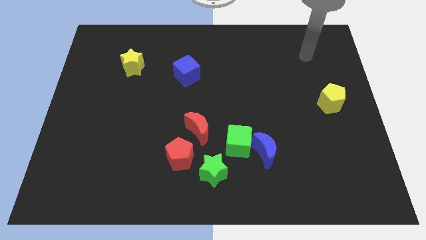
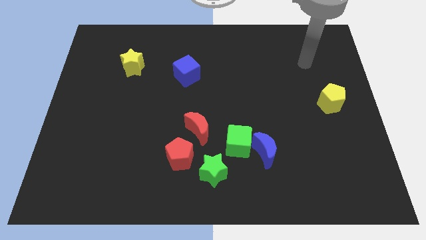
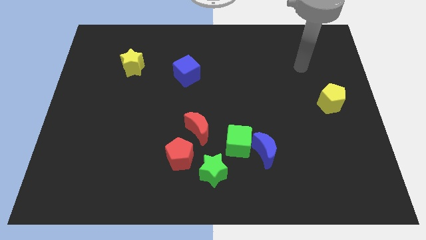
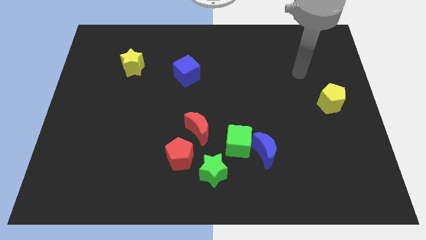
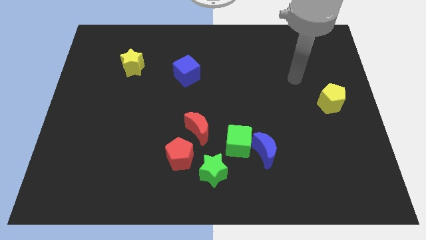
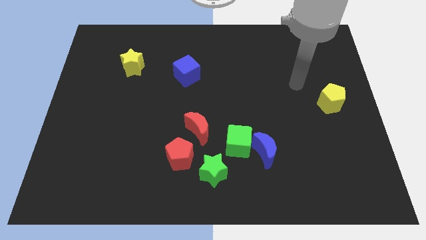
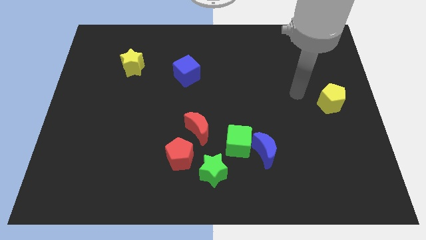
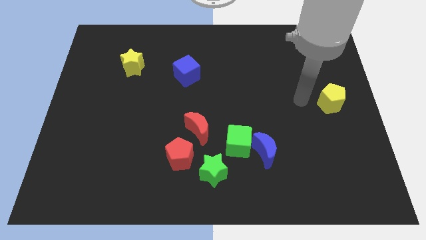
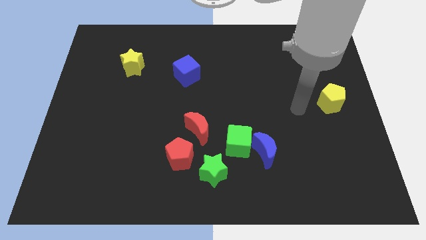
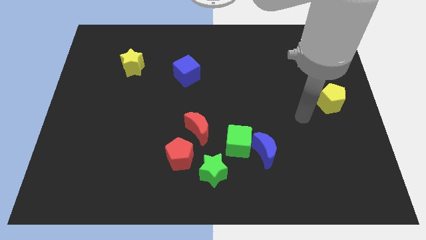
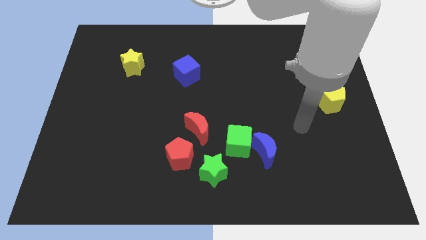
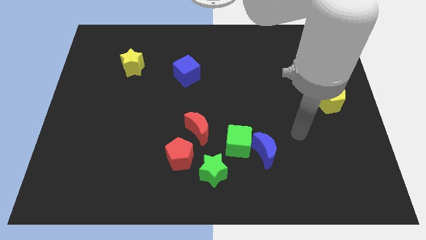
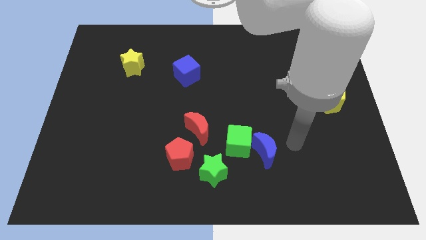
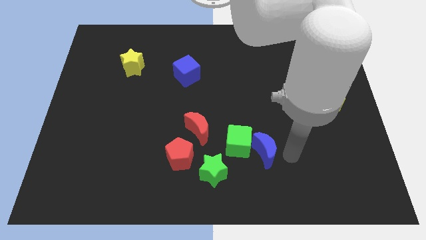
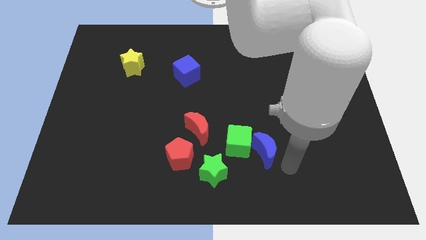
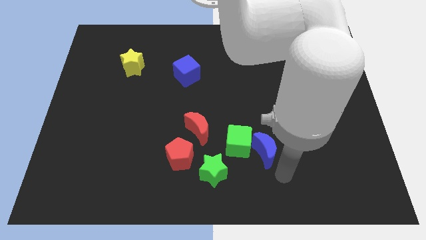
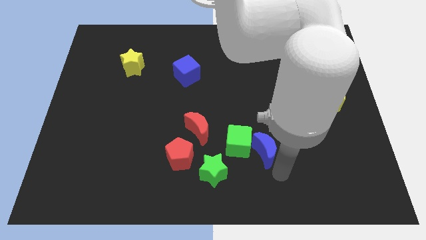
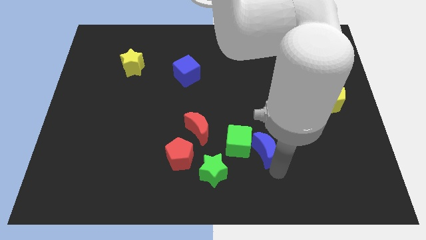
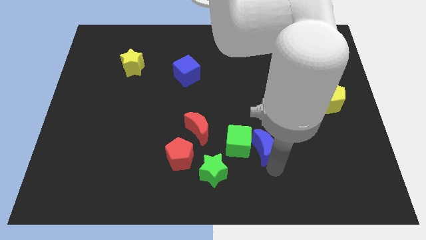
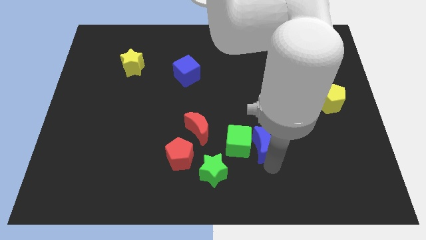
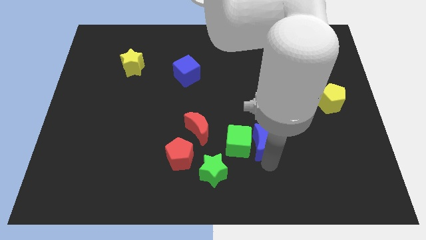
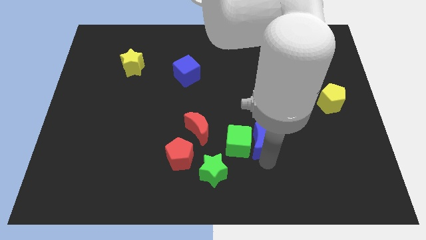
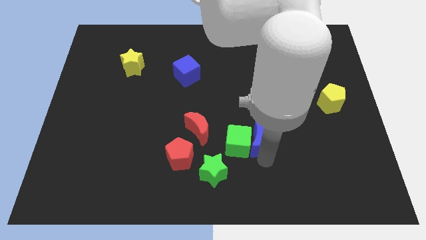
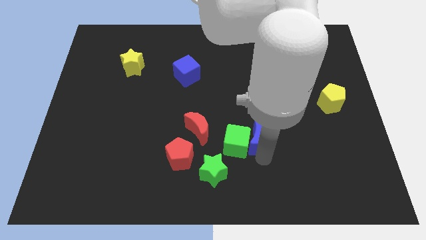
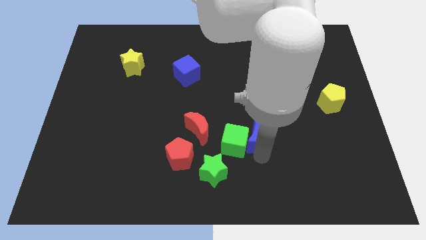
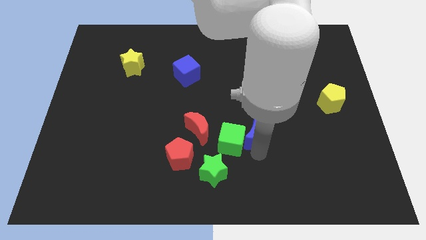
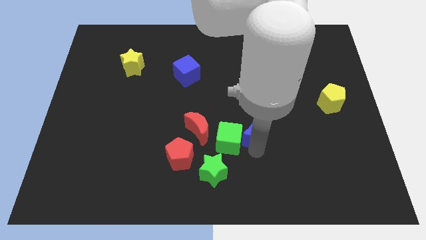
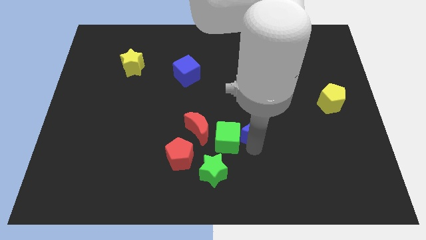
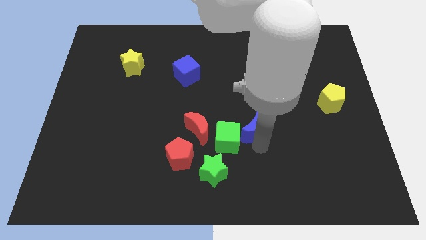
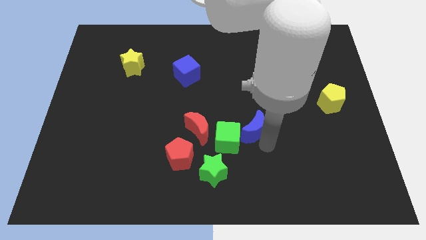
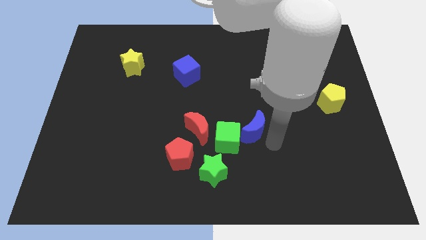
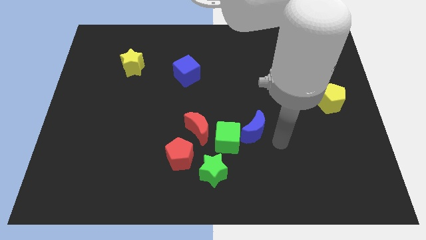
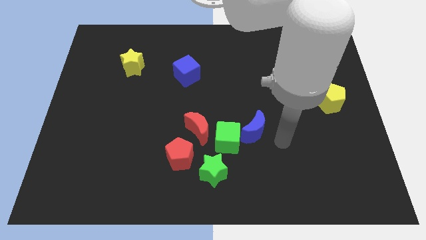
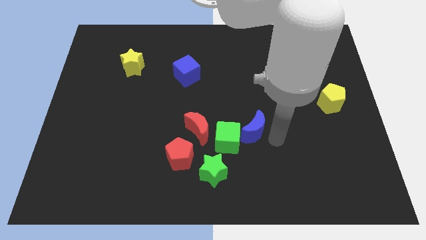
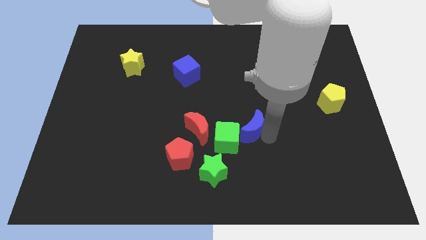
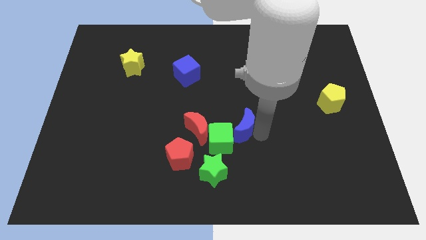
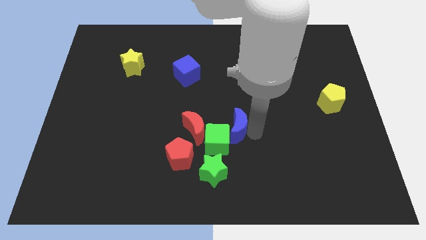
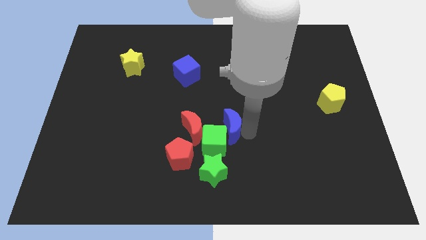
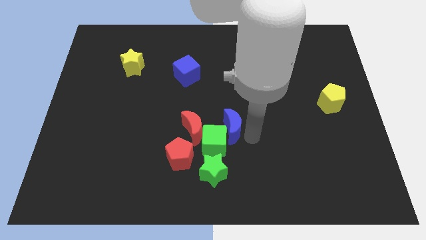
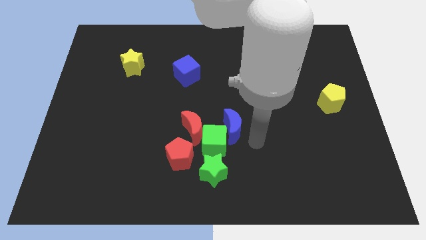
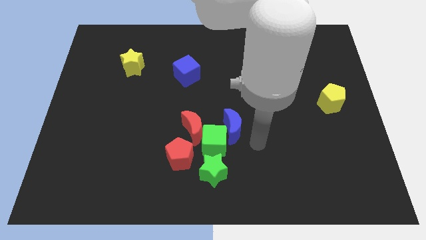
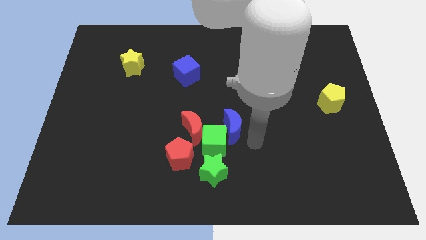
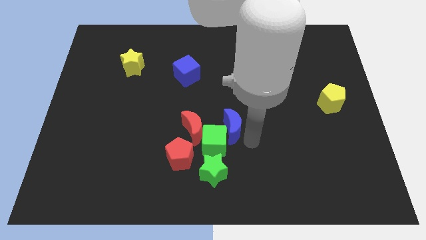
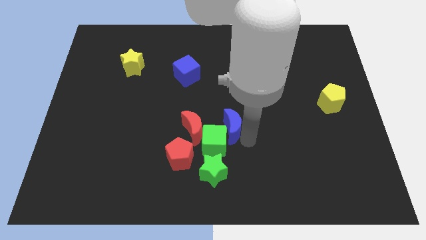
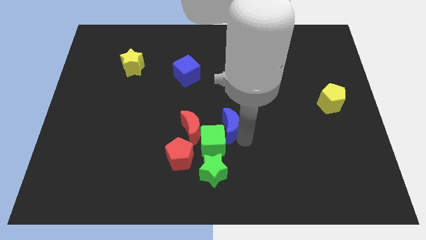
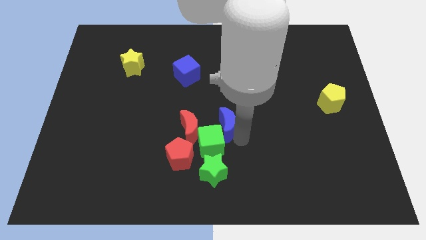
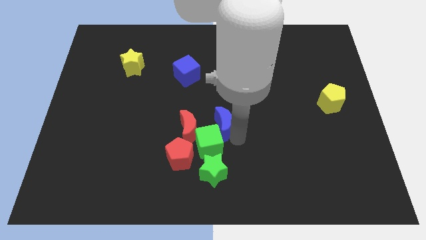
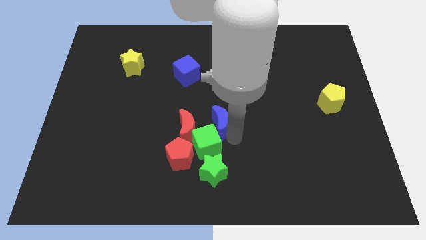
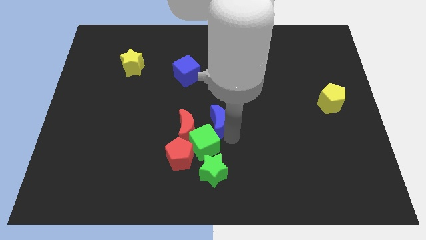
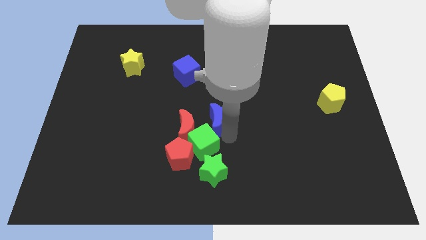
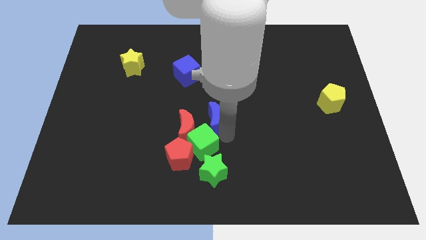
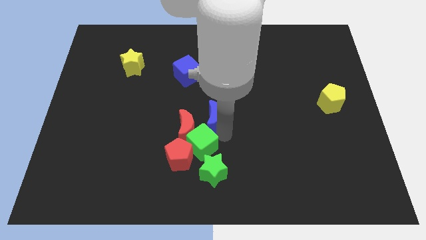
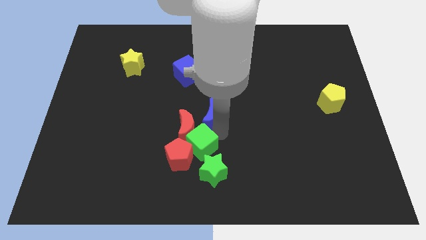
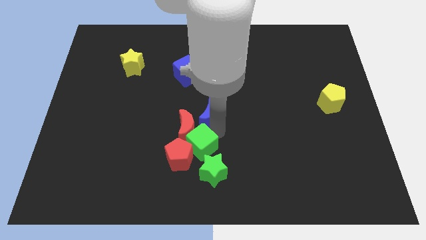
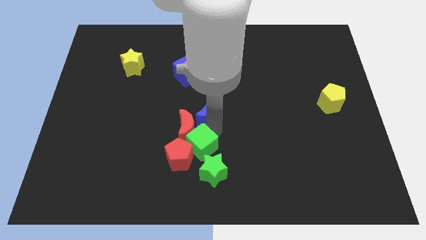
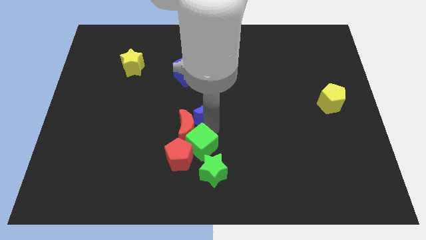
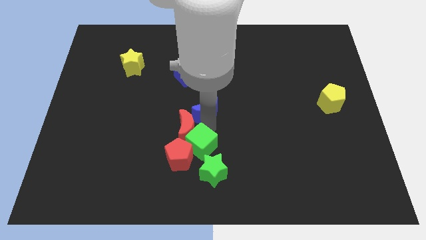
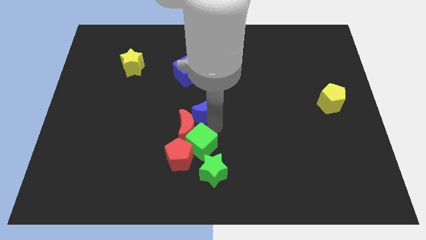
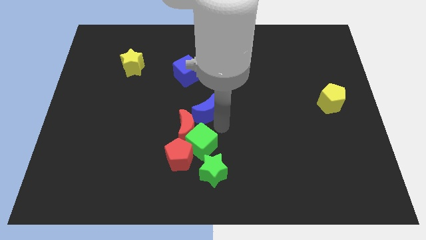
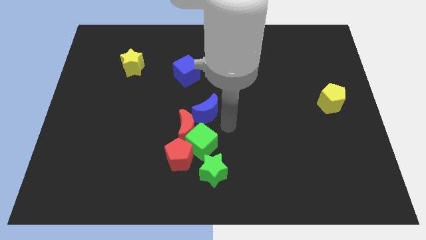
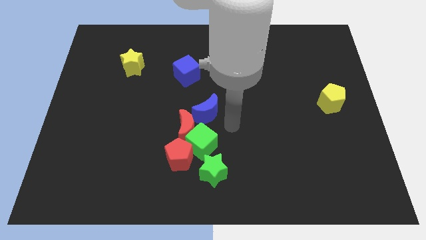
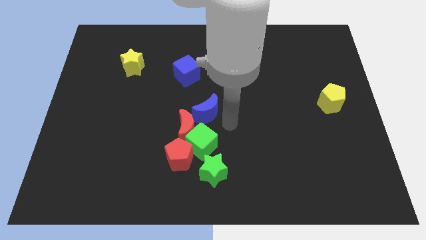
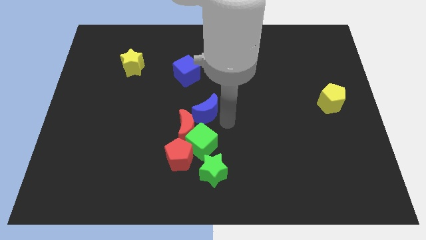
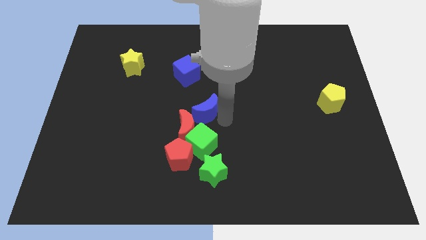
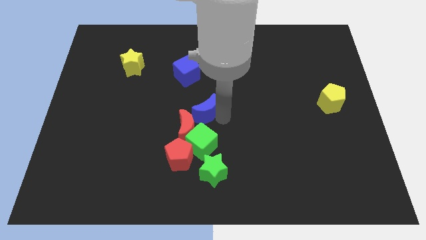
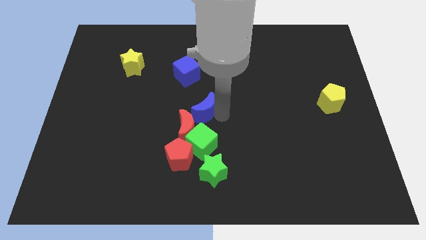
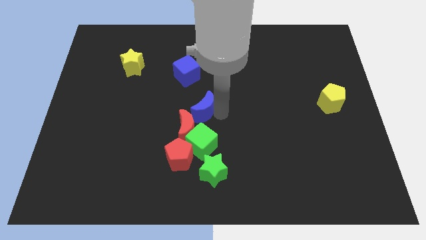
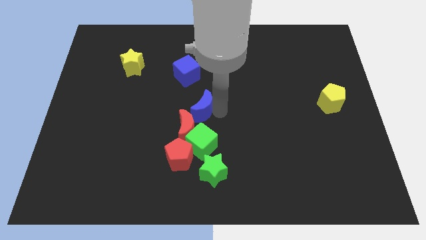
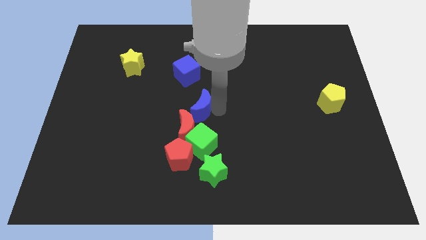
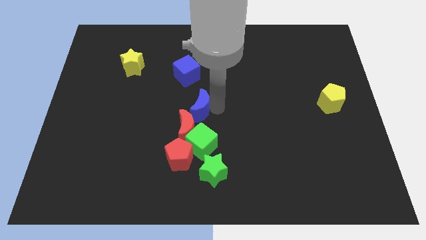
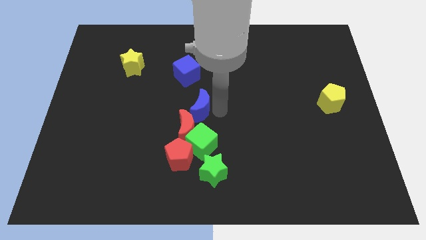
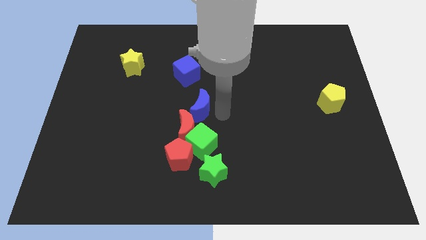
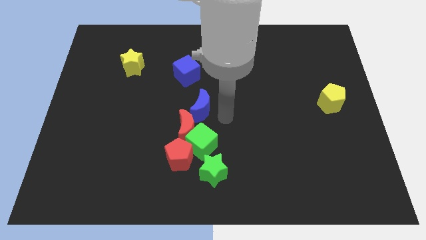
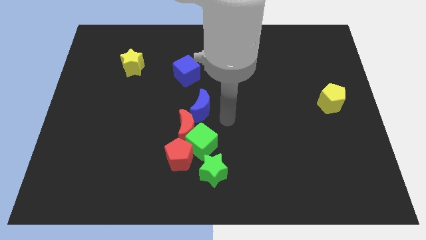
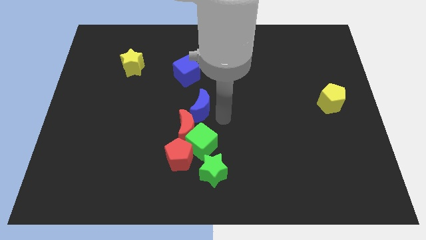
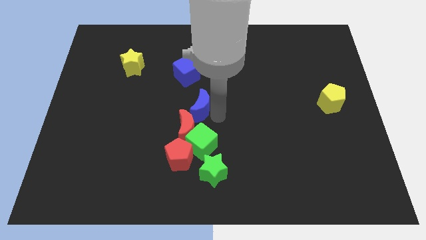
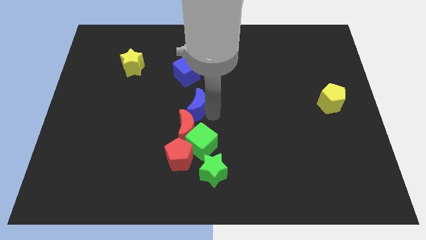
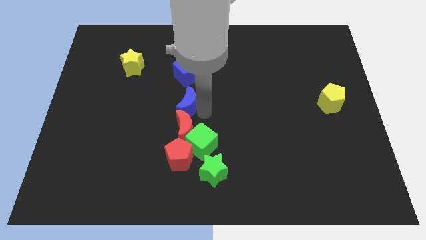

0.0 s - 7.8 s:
slide the blue moon up and then to the left
